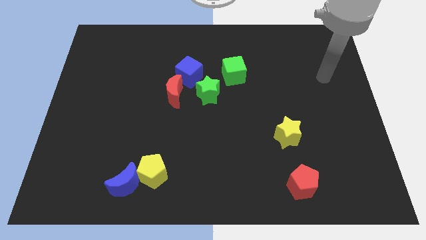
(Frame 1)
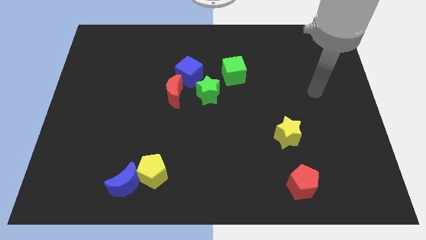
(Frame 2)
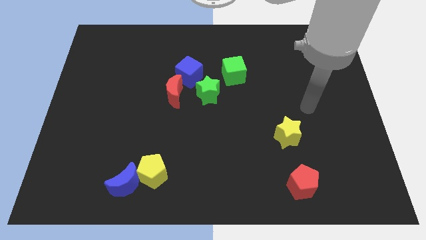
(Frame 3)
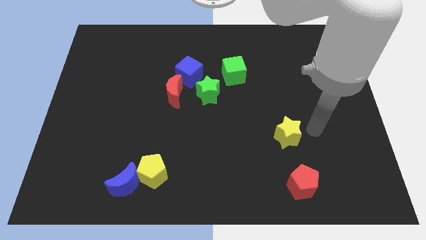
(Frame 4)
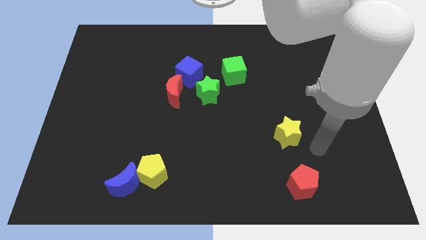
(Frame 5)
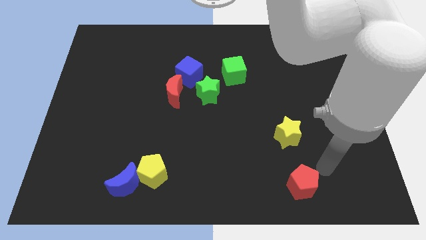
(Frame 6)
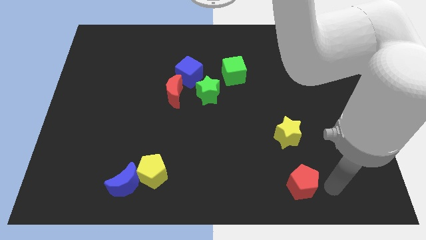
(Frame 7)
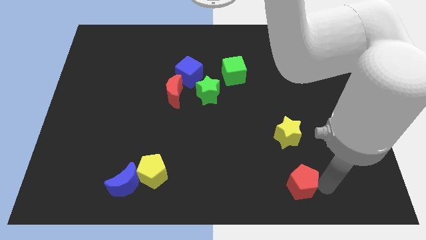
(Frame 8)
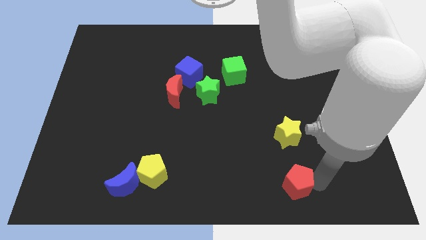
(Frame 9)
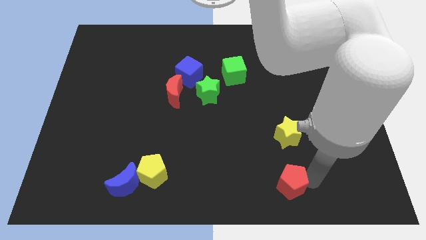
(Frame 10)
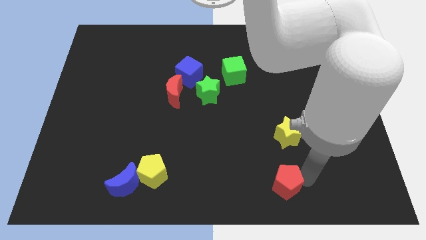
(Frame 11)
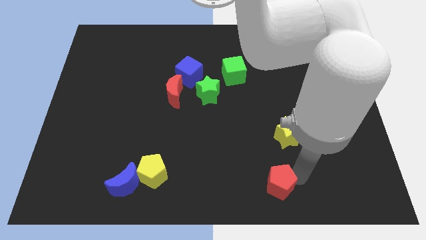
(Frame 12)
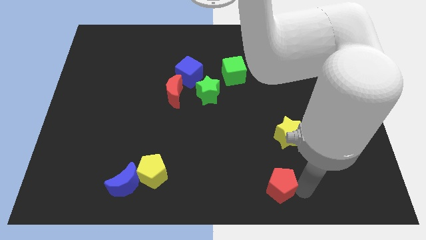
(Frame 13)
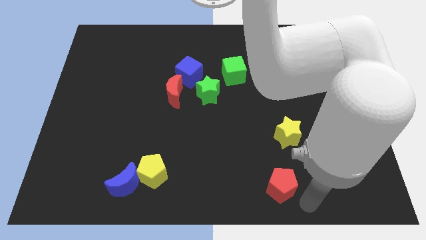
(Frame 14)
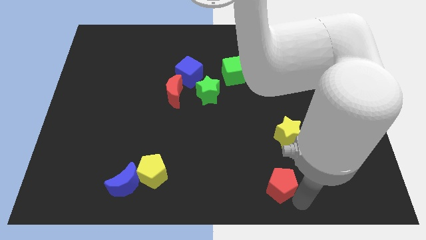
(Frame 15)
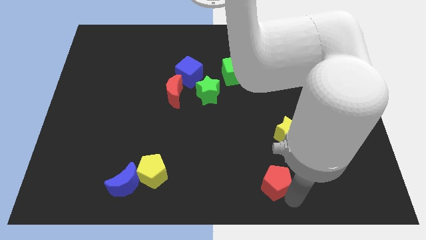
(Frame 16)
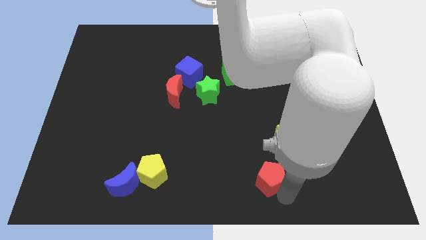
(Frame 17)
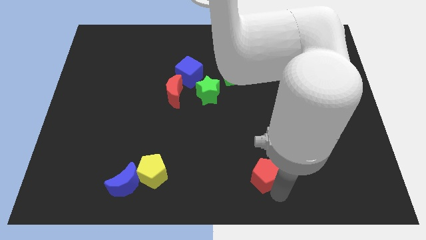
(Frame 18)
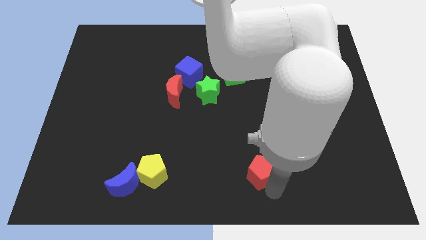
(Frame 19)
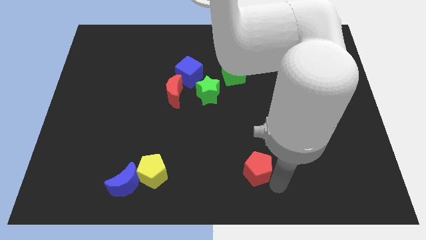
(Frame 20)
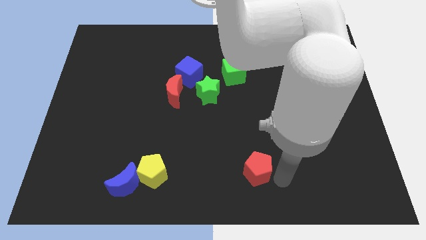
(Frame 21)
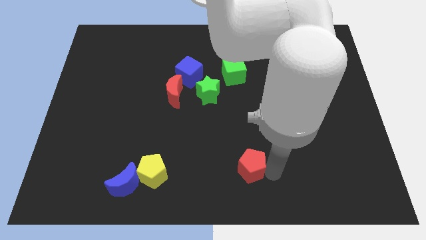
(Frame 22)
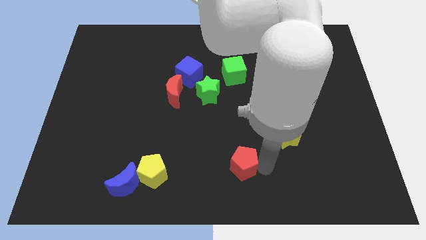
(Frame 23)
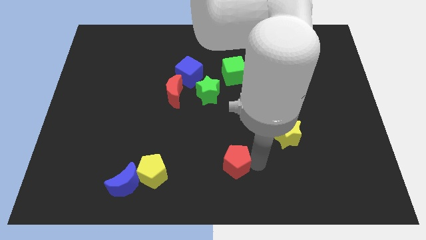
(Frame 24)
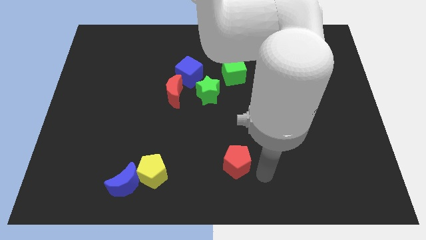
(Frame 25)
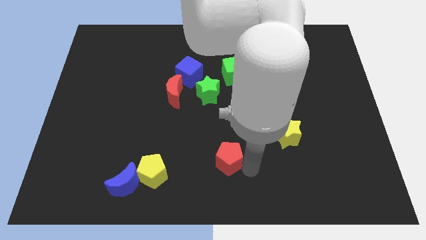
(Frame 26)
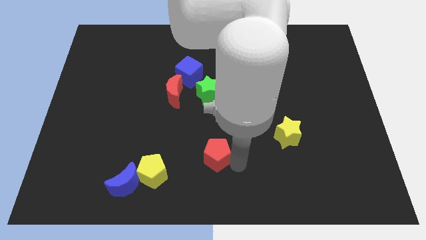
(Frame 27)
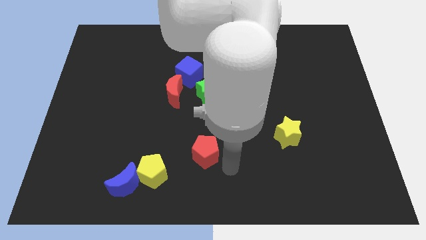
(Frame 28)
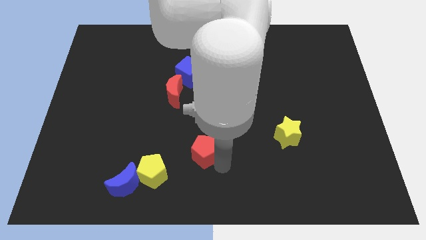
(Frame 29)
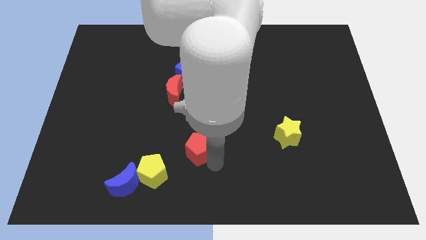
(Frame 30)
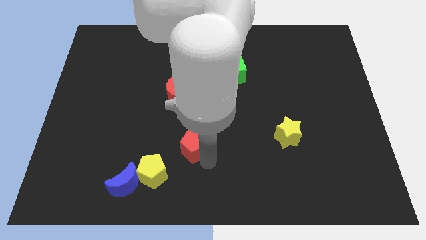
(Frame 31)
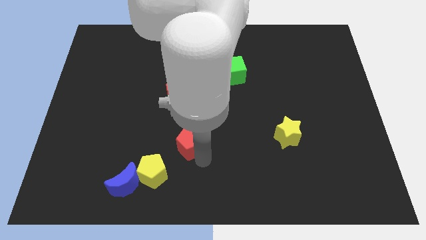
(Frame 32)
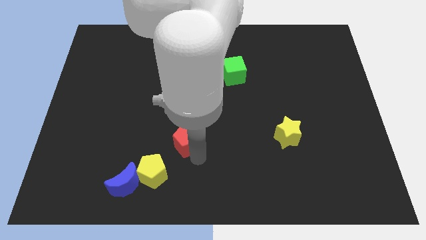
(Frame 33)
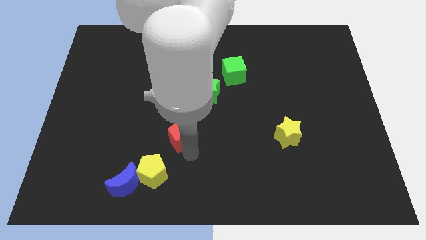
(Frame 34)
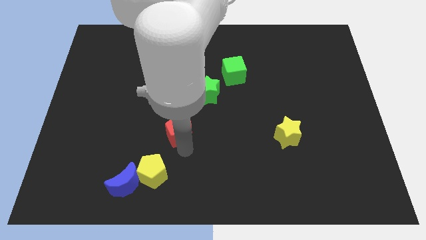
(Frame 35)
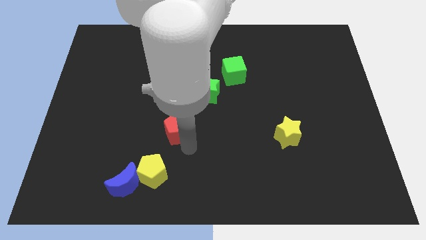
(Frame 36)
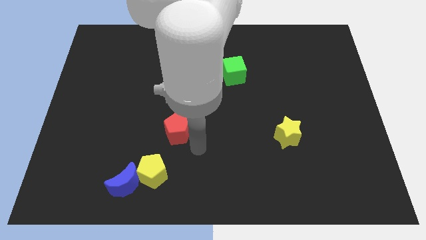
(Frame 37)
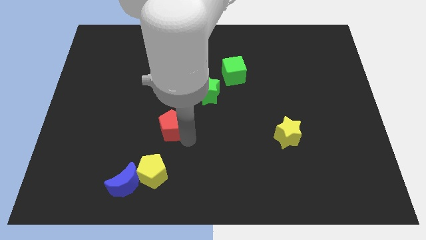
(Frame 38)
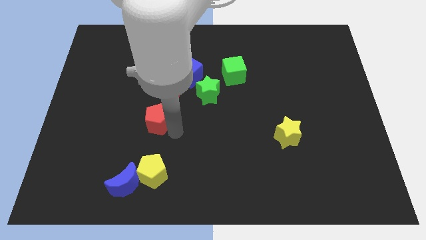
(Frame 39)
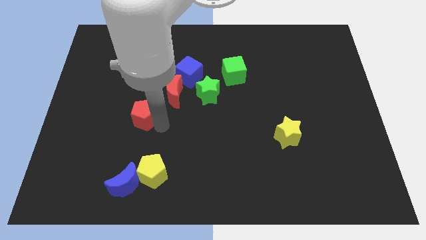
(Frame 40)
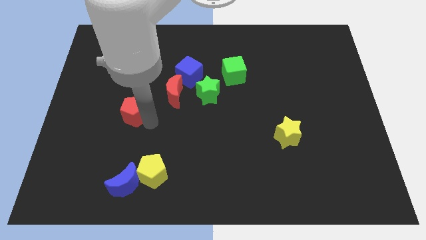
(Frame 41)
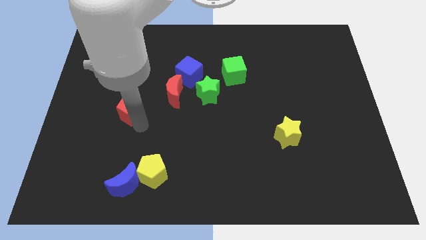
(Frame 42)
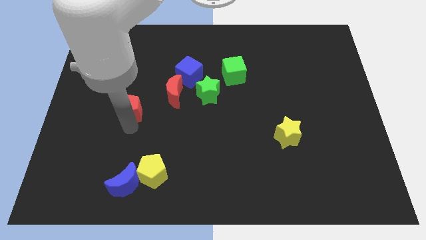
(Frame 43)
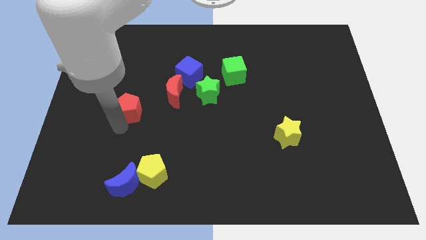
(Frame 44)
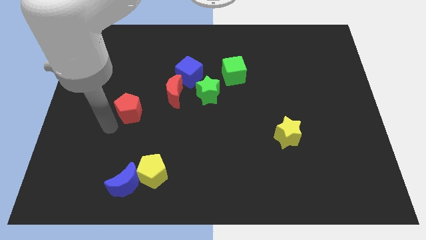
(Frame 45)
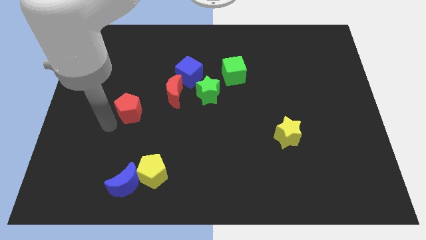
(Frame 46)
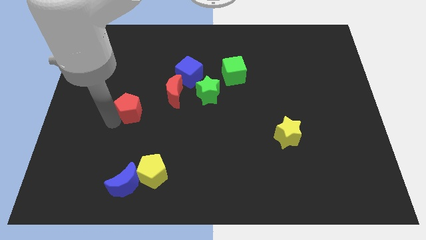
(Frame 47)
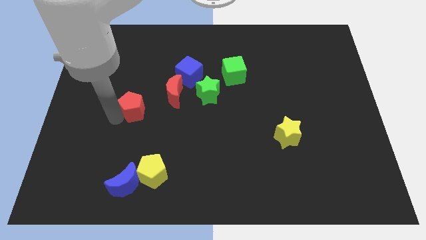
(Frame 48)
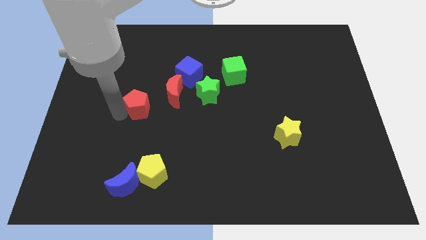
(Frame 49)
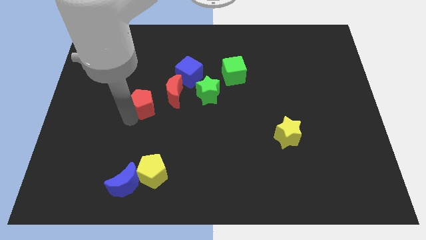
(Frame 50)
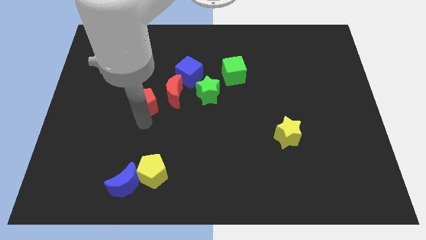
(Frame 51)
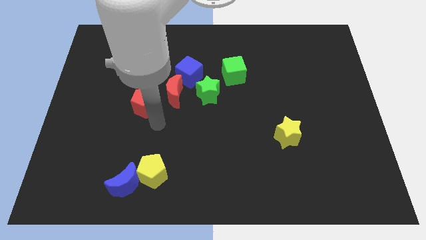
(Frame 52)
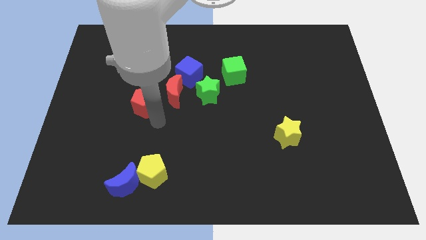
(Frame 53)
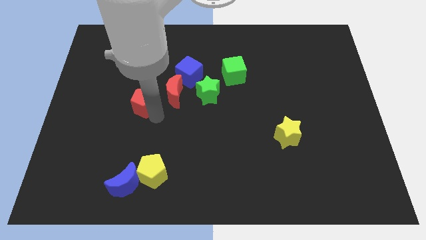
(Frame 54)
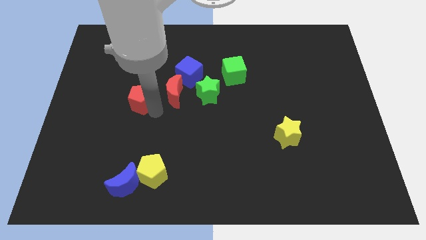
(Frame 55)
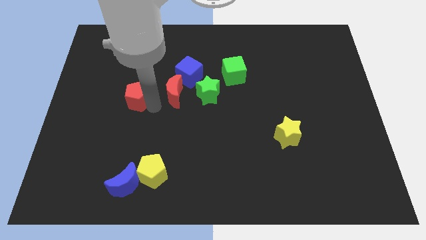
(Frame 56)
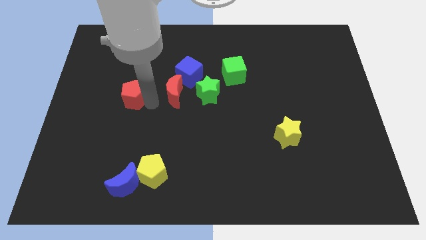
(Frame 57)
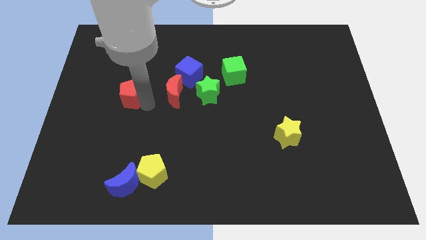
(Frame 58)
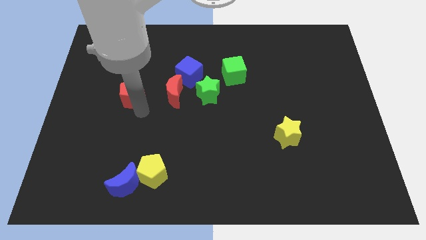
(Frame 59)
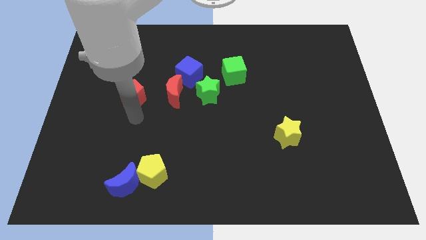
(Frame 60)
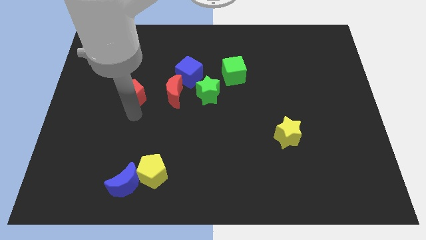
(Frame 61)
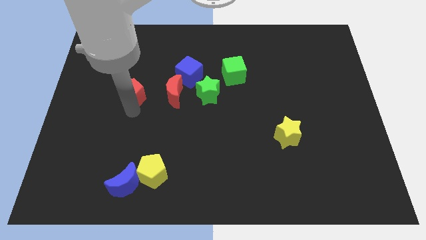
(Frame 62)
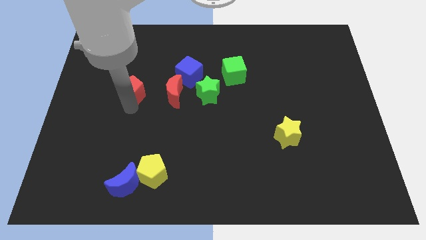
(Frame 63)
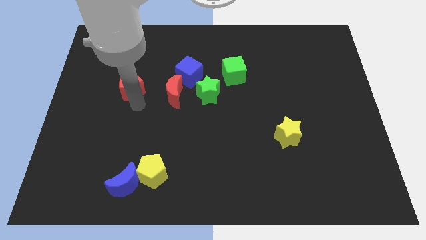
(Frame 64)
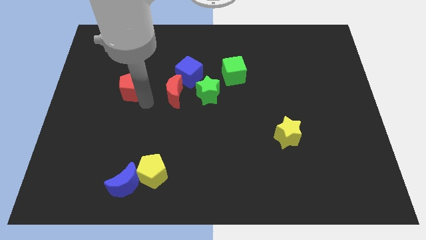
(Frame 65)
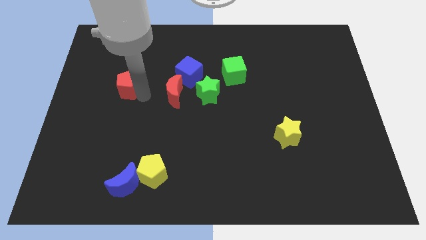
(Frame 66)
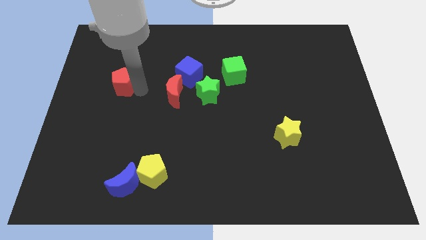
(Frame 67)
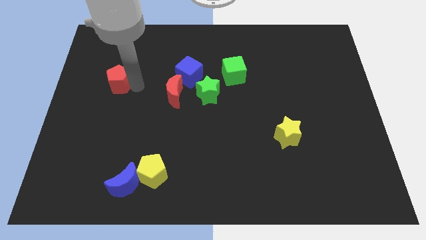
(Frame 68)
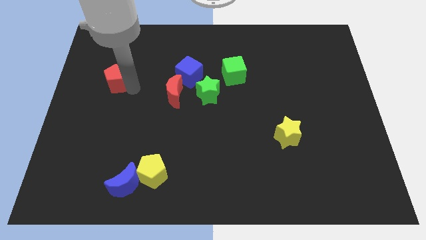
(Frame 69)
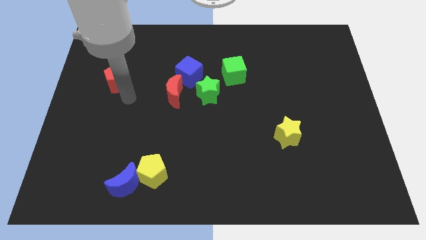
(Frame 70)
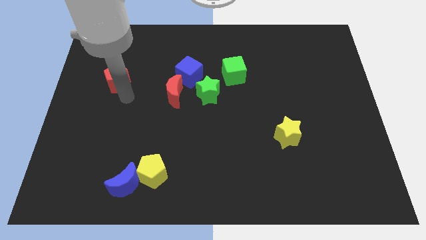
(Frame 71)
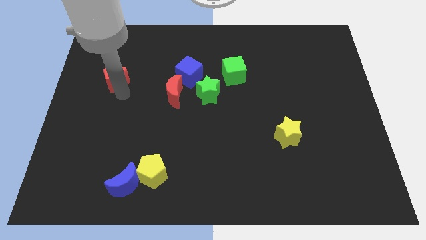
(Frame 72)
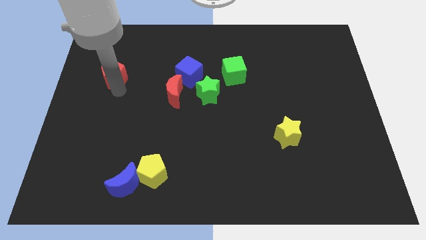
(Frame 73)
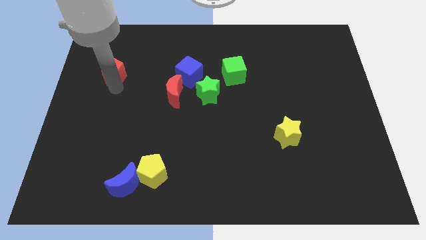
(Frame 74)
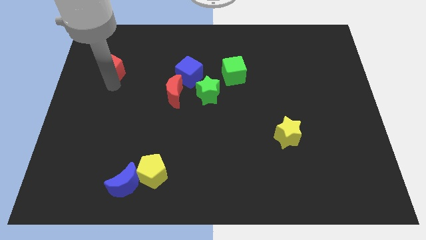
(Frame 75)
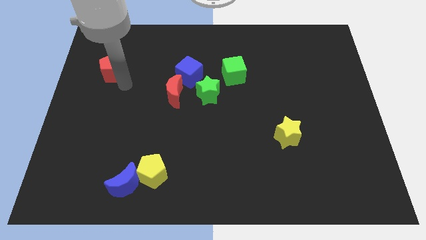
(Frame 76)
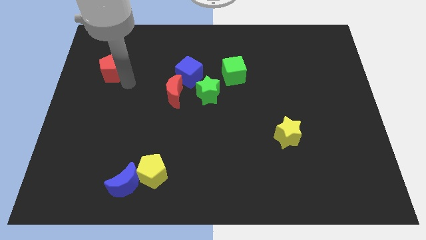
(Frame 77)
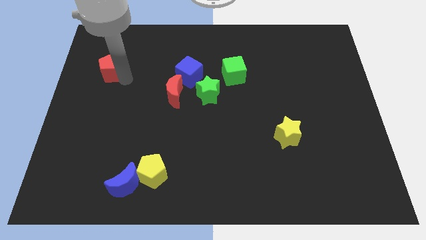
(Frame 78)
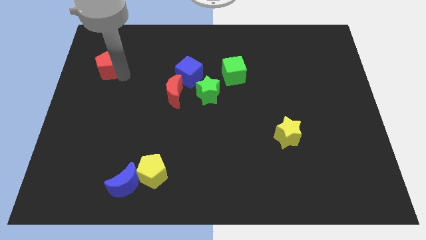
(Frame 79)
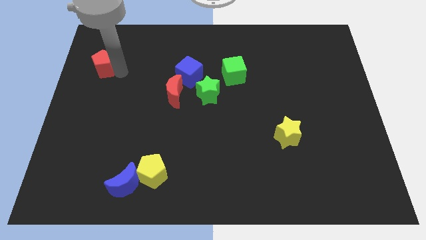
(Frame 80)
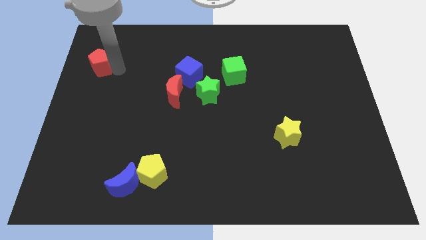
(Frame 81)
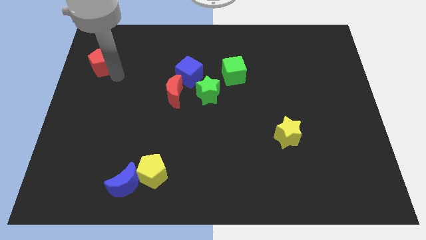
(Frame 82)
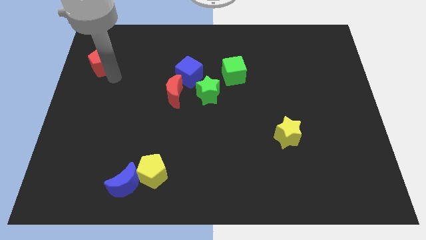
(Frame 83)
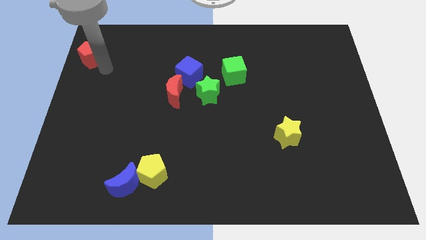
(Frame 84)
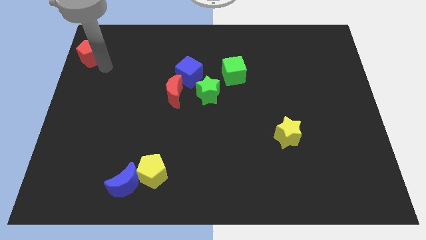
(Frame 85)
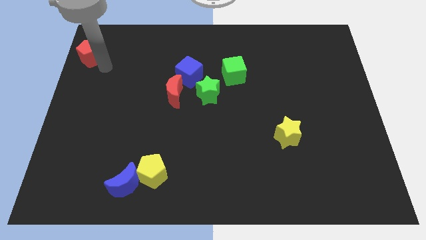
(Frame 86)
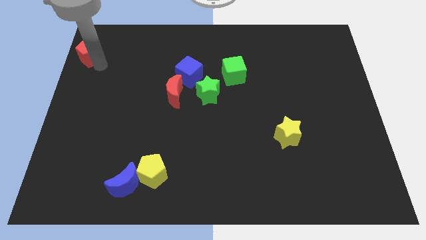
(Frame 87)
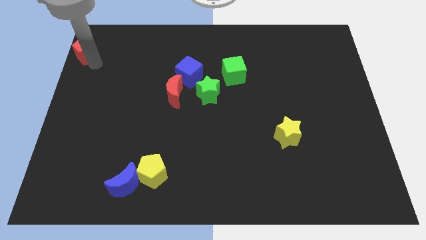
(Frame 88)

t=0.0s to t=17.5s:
move the red pentagon to the upper left corner
